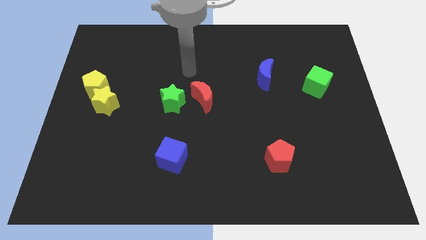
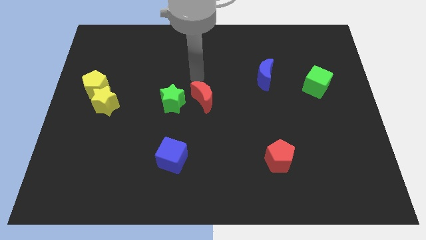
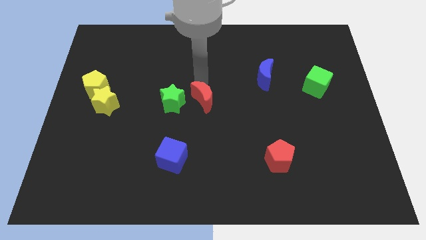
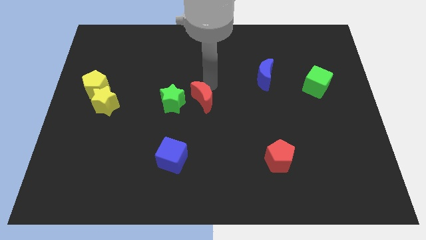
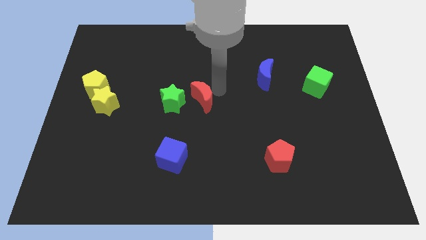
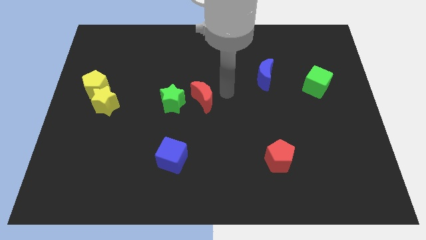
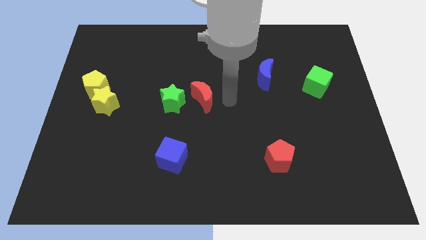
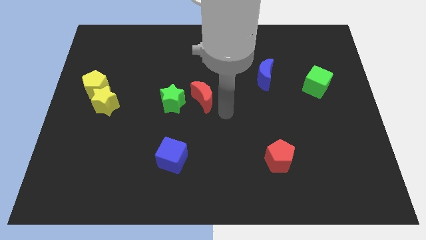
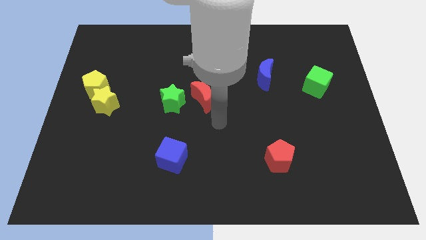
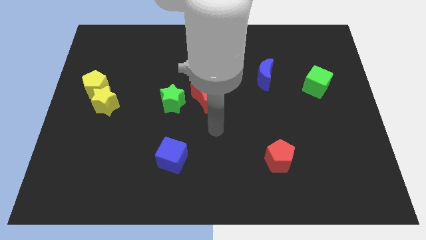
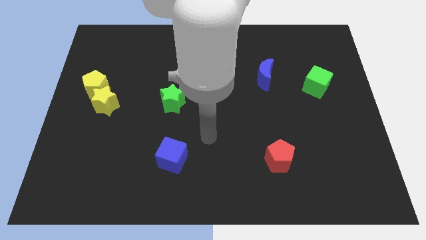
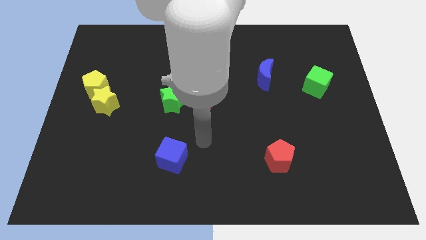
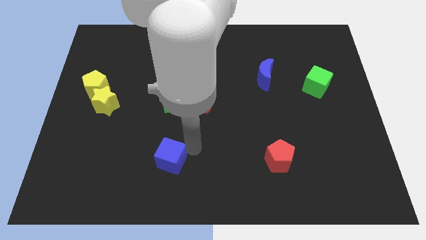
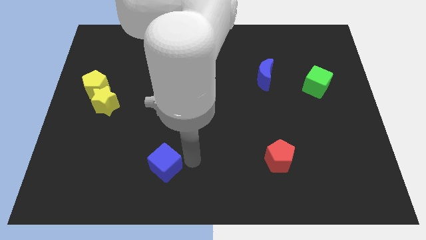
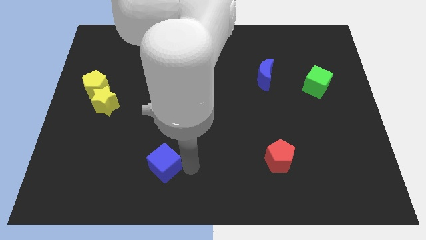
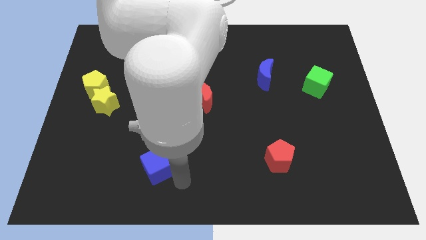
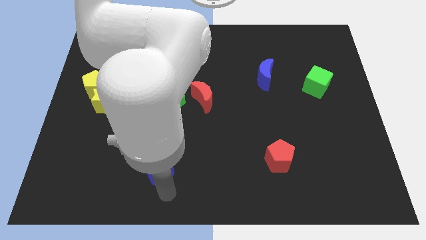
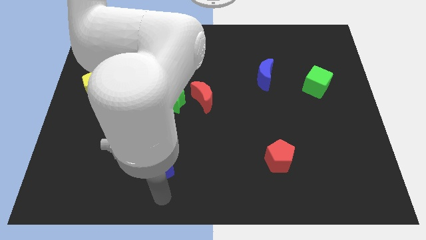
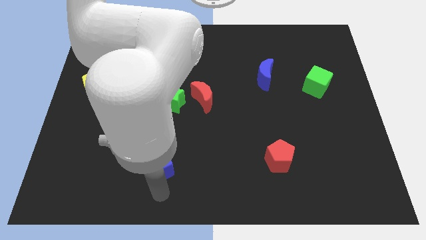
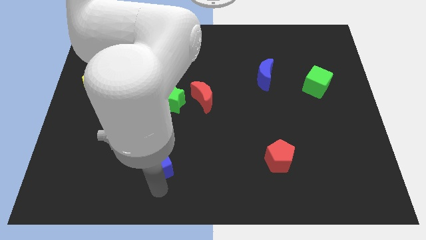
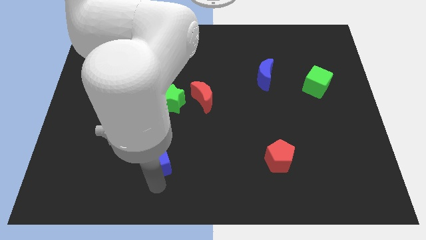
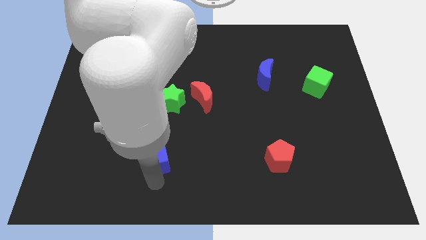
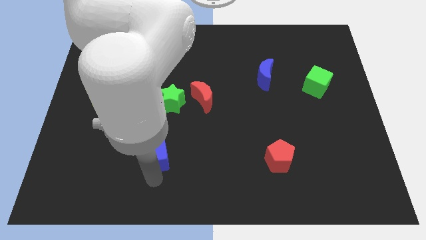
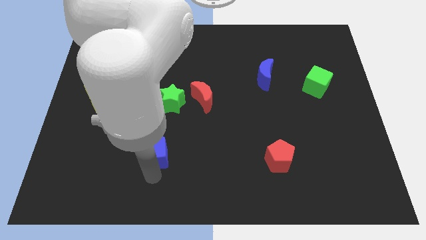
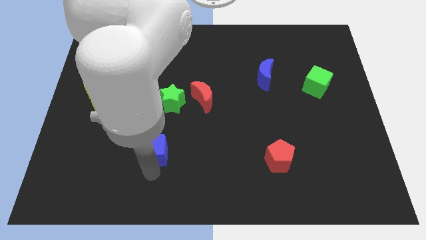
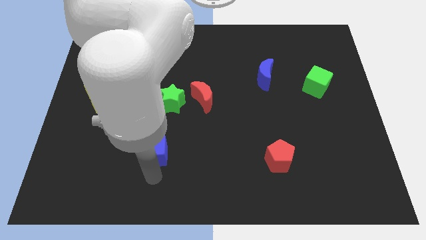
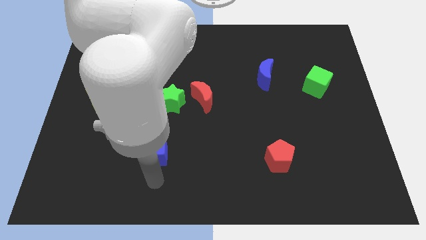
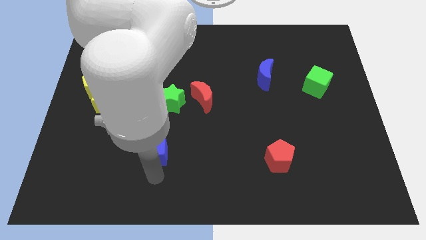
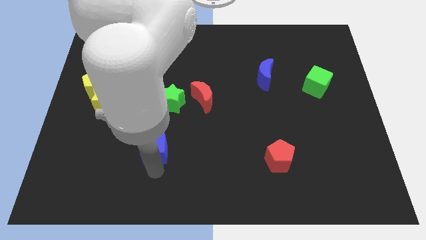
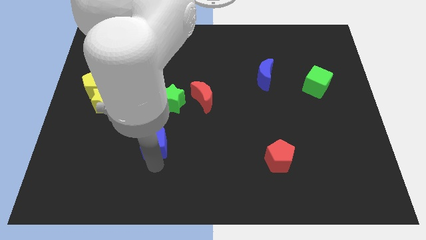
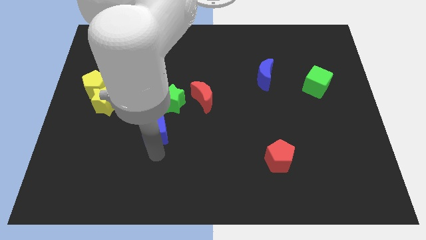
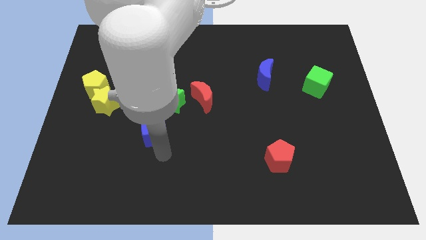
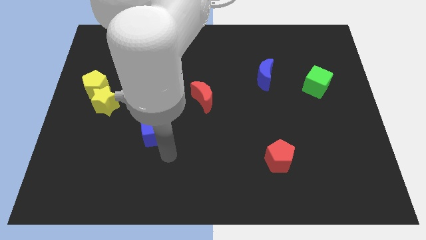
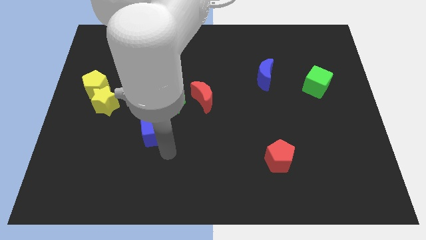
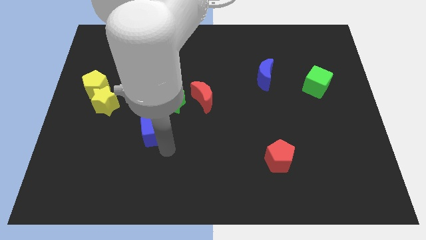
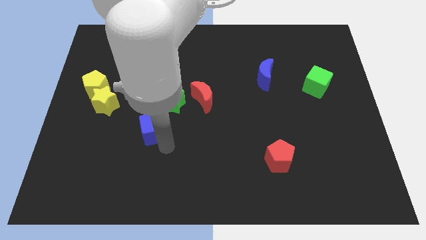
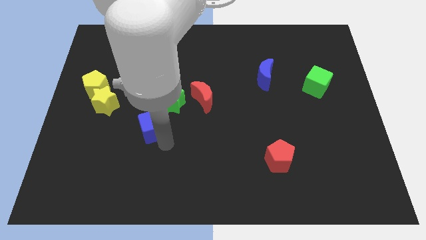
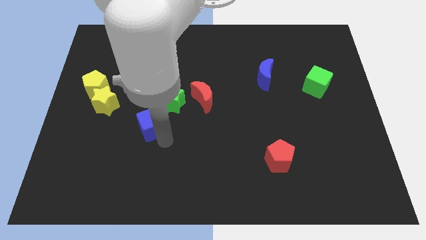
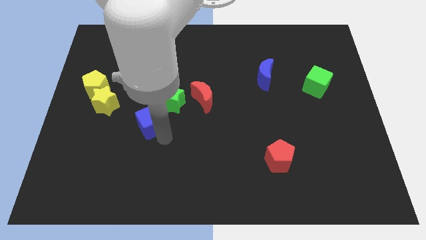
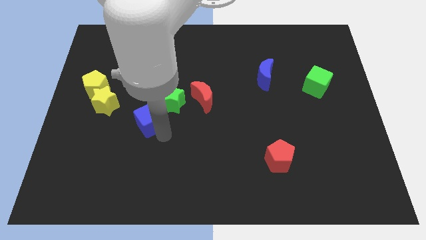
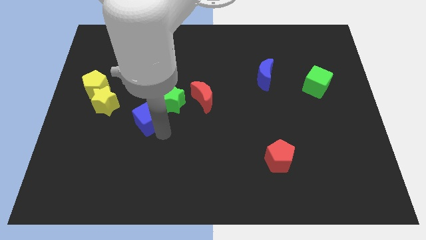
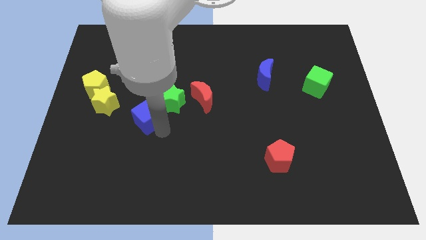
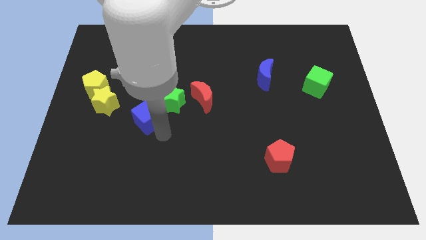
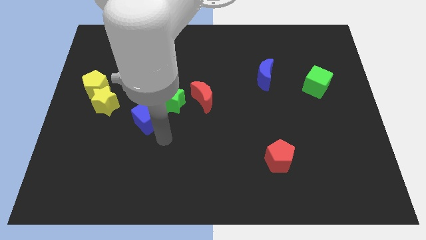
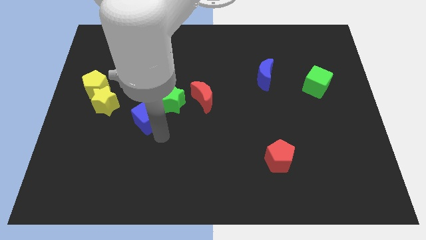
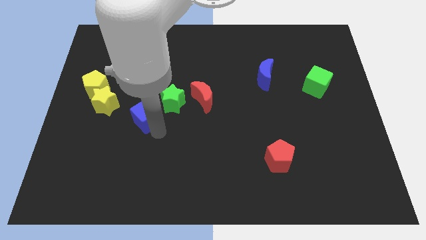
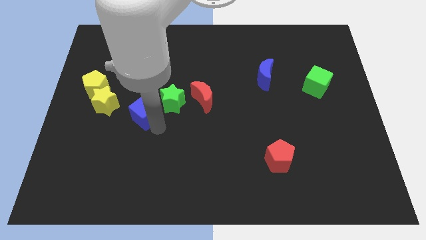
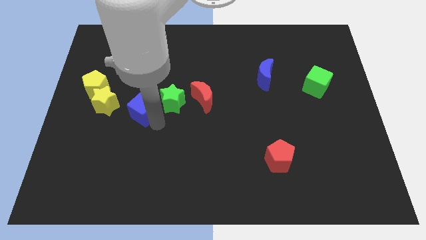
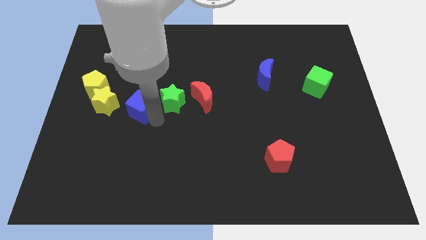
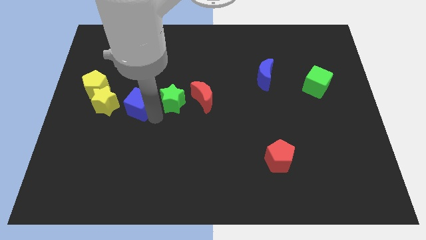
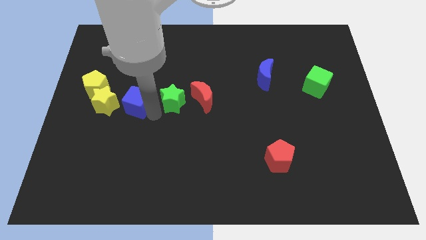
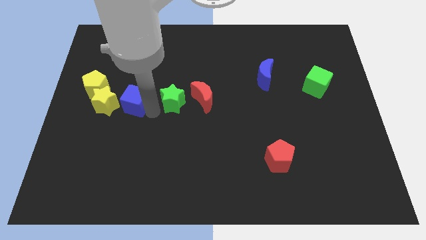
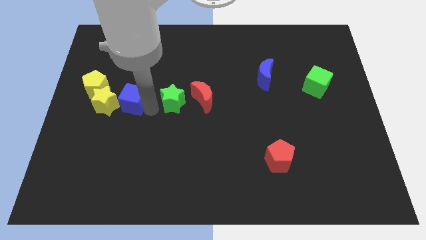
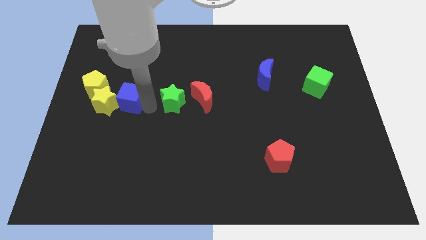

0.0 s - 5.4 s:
slide the blue cube close to the yellow star
